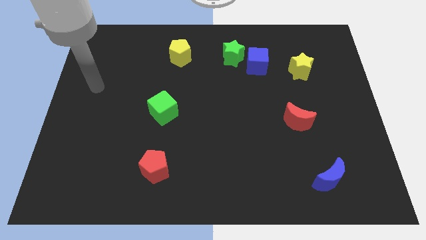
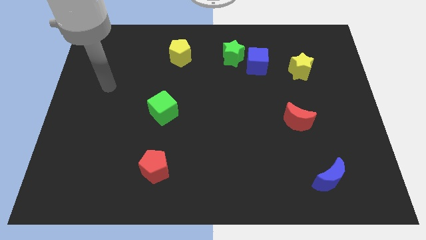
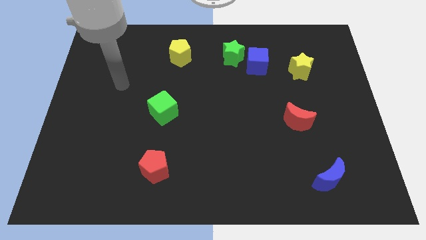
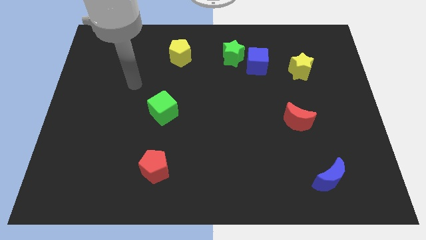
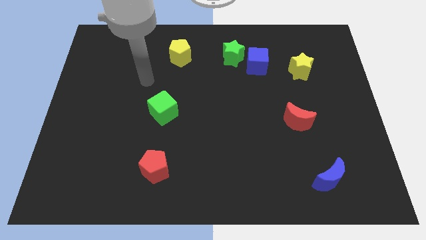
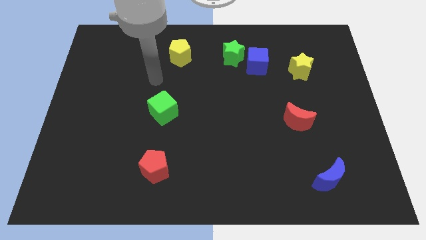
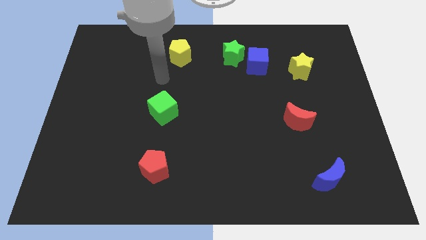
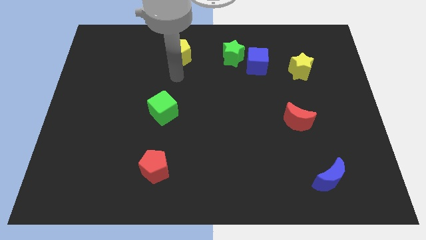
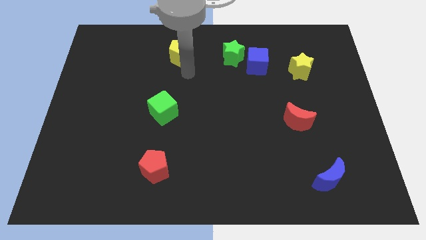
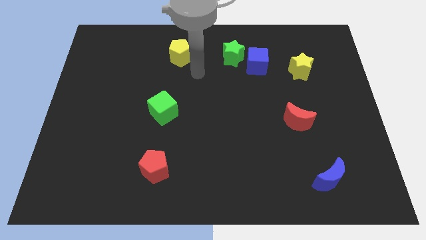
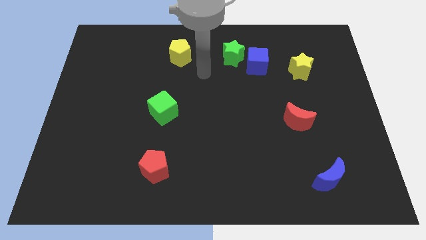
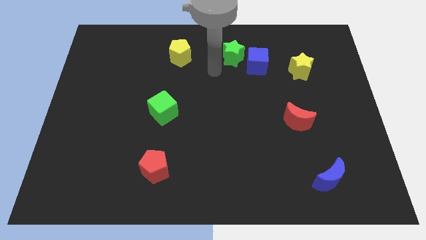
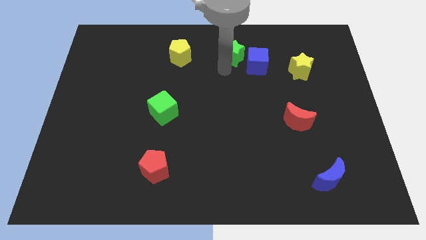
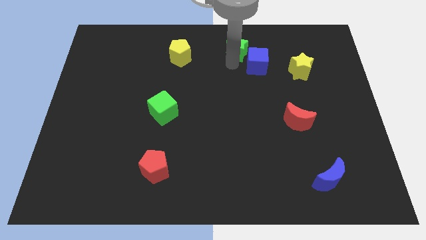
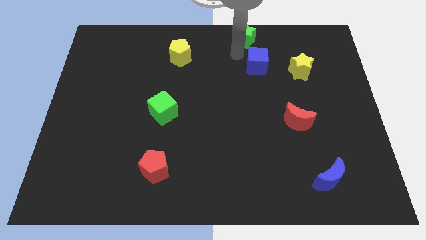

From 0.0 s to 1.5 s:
separate the blue cube from the green star

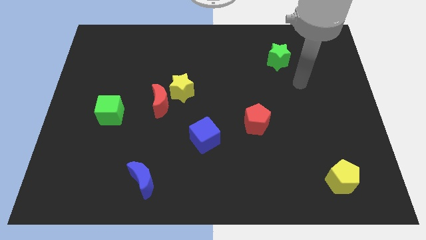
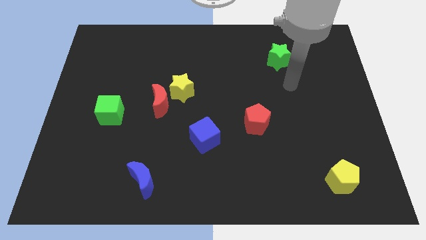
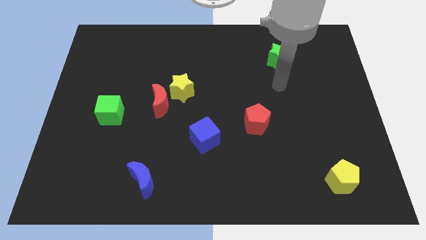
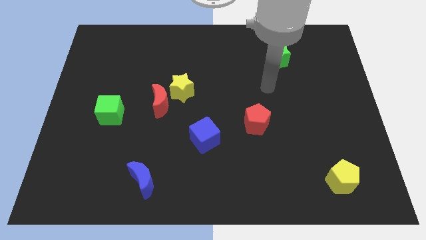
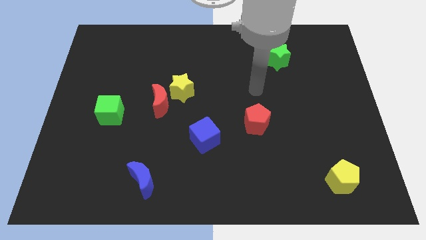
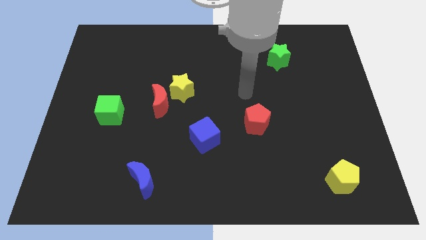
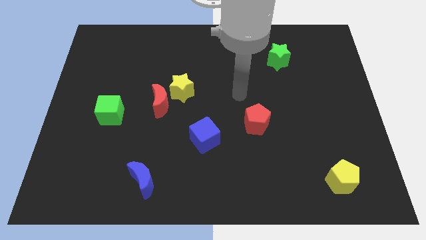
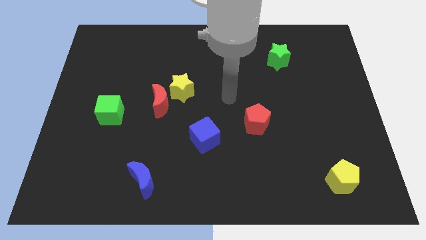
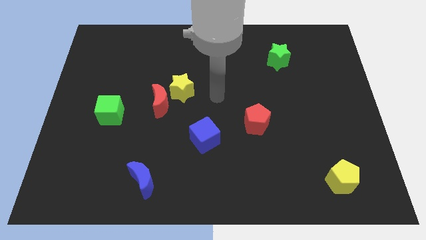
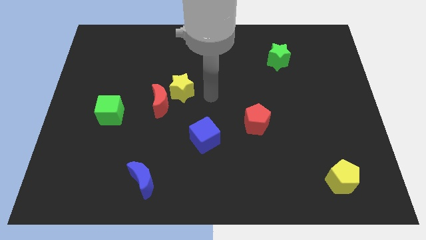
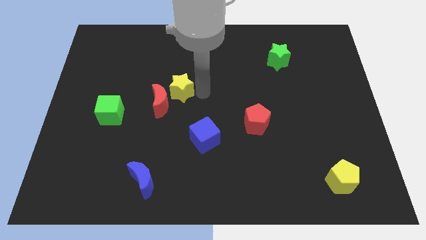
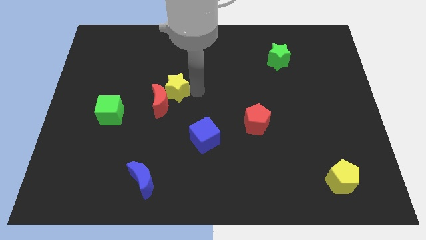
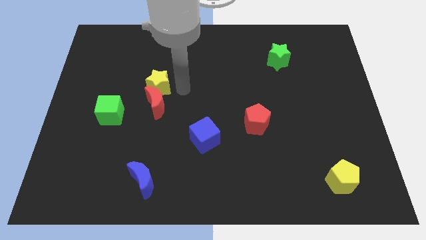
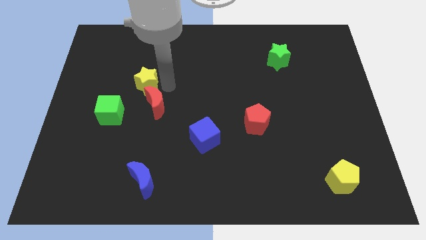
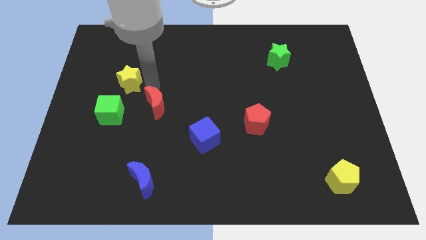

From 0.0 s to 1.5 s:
move the red moon away from the yellow star

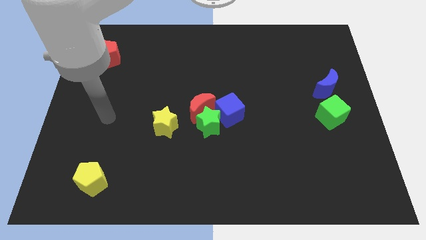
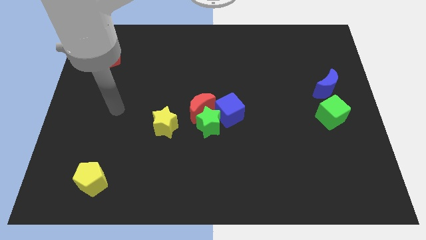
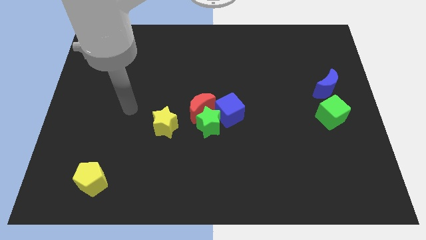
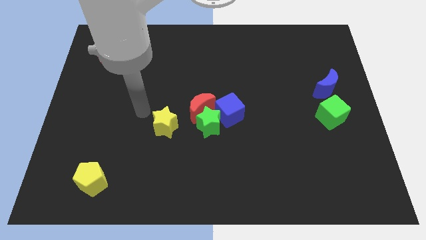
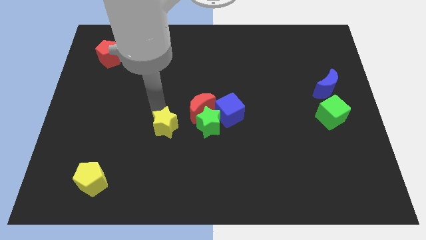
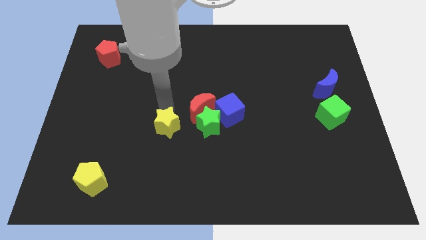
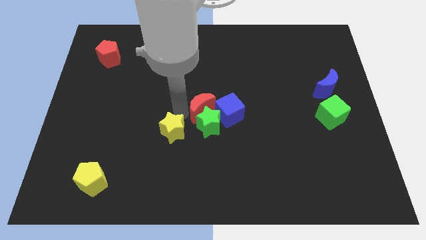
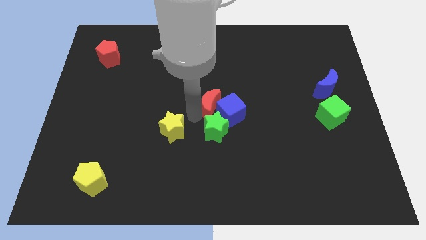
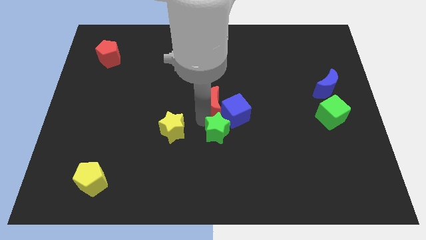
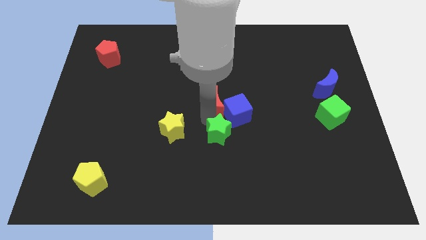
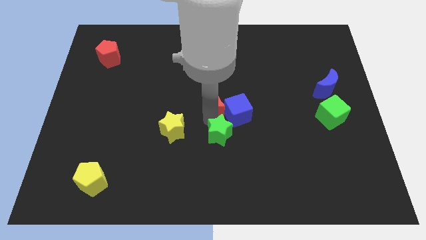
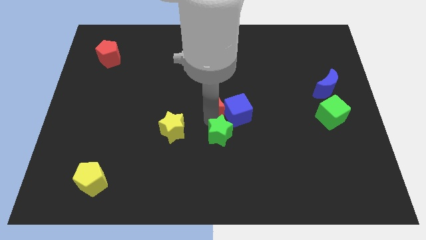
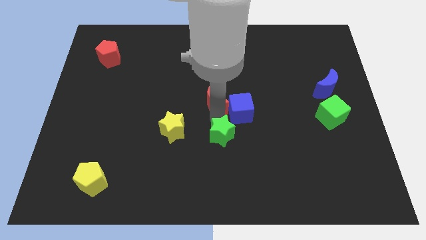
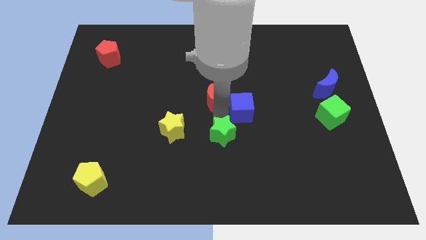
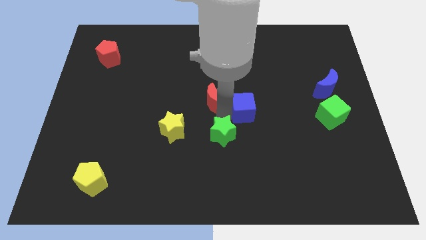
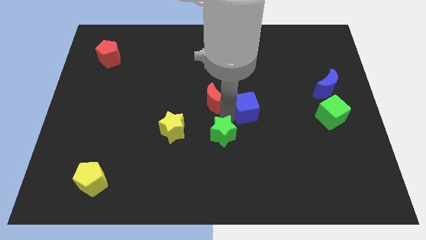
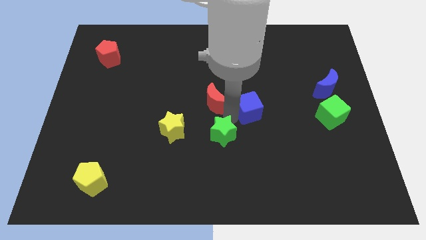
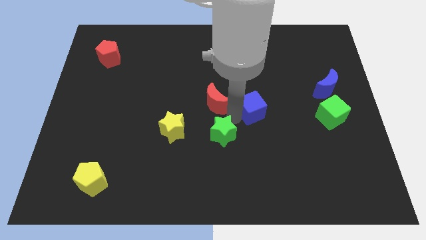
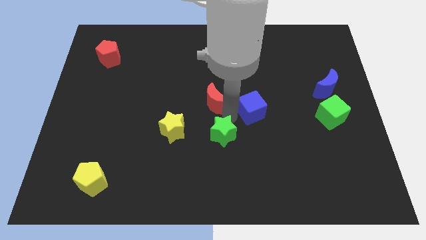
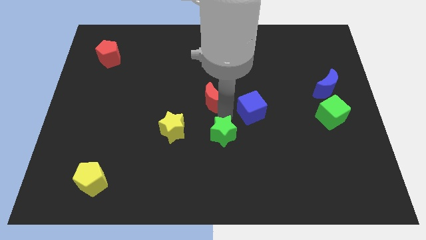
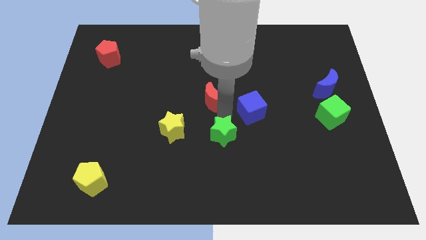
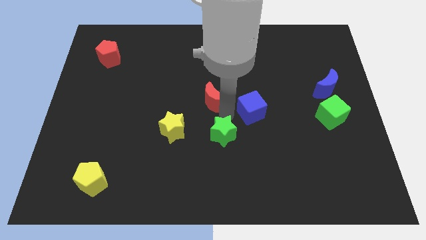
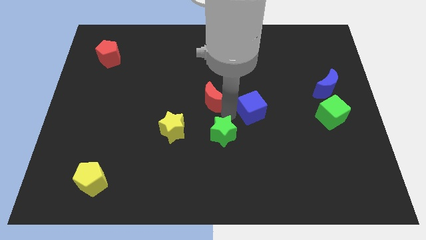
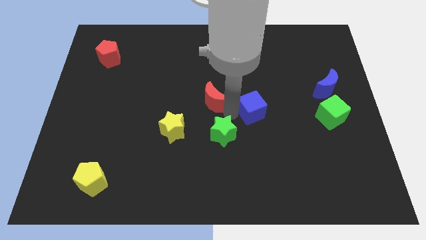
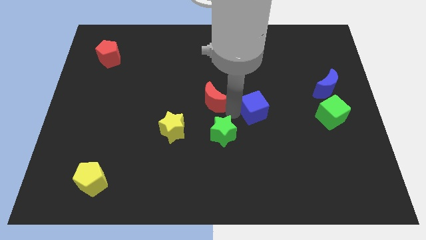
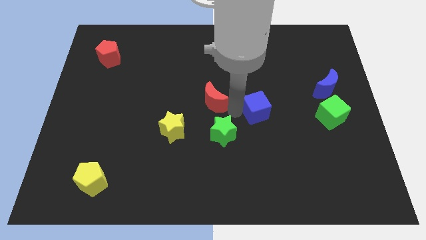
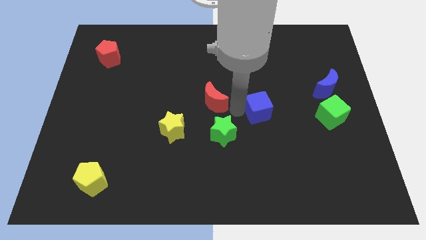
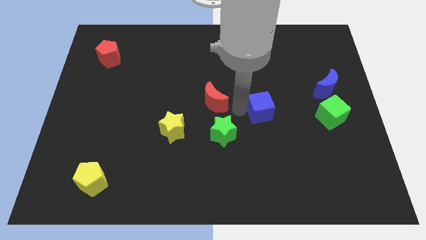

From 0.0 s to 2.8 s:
move the blue cube away from the green star and red moon

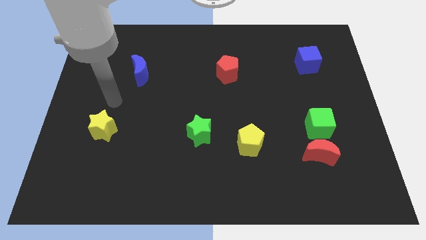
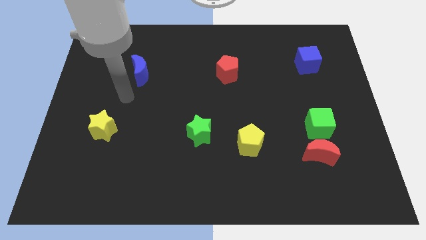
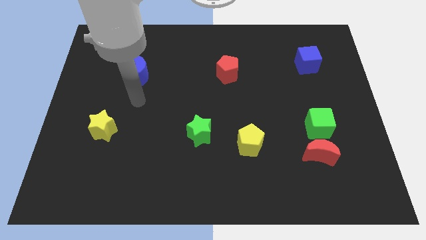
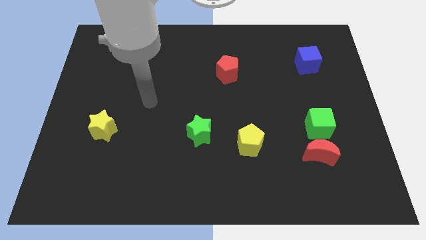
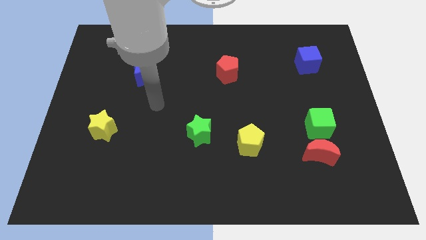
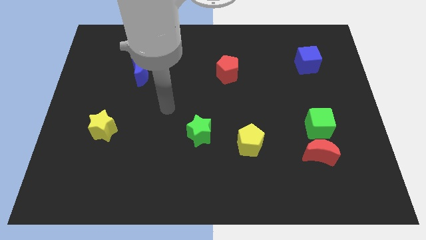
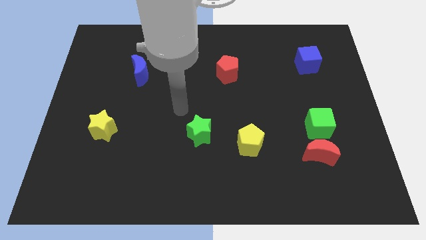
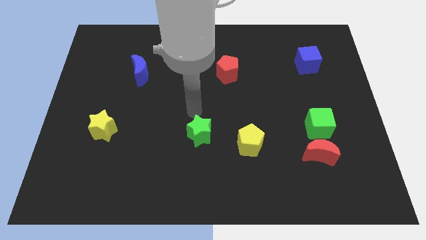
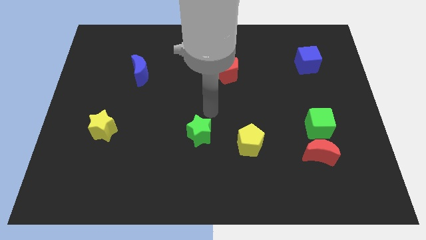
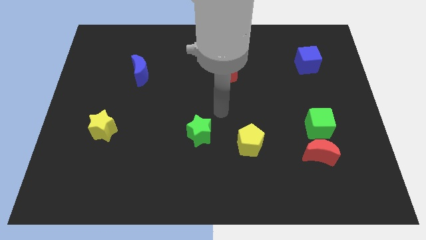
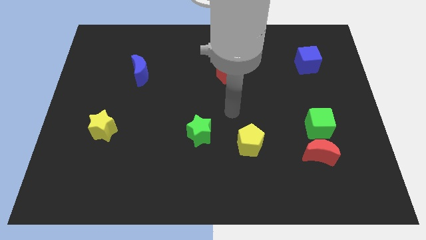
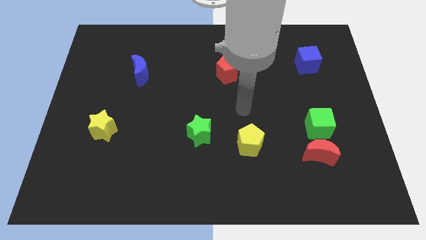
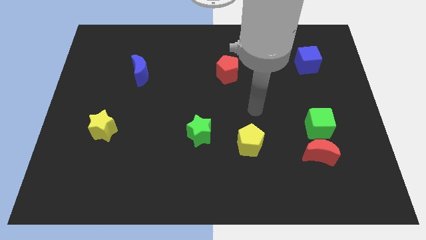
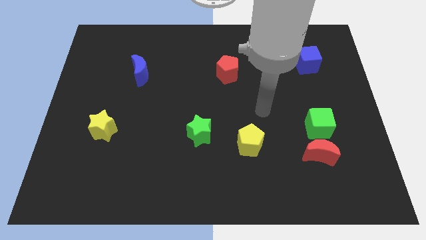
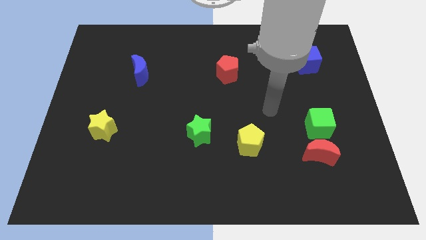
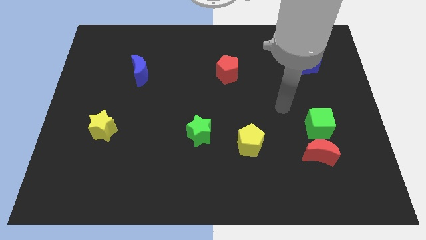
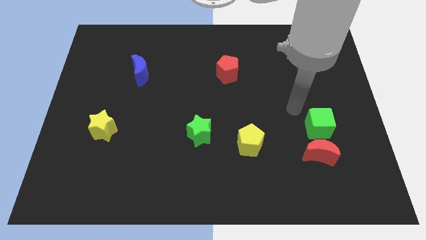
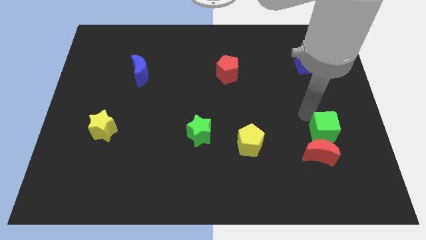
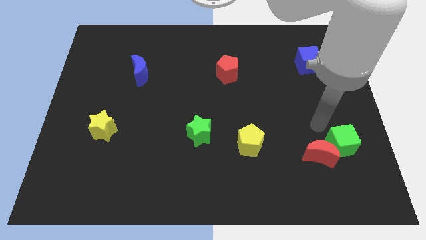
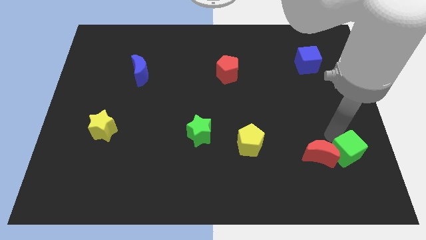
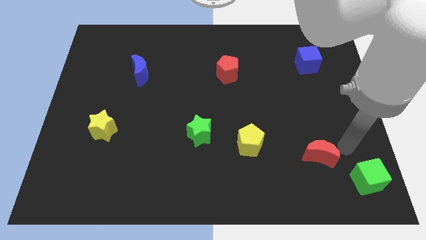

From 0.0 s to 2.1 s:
pull the red moon apart from the green cube

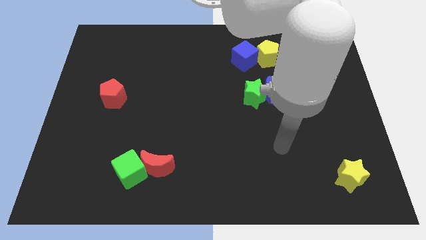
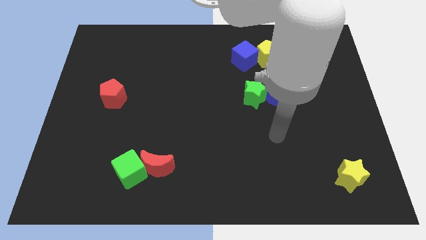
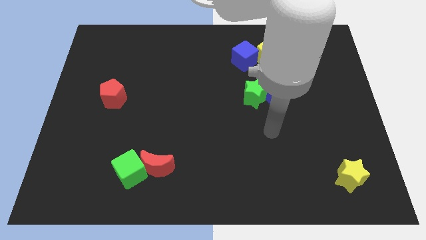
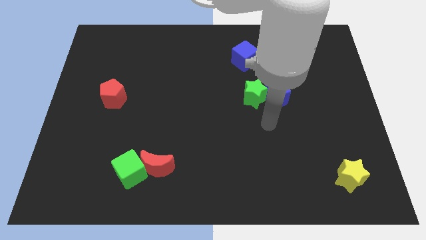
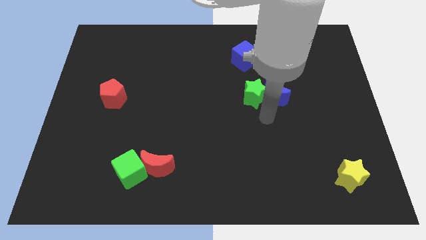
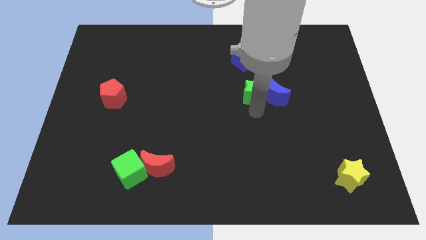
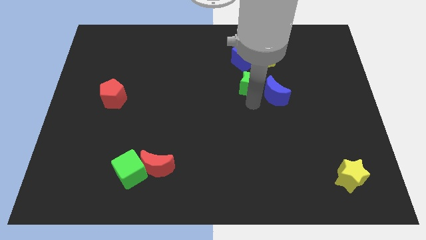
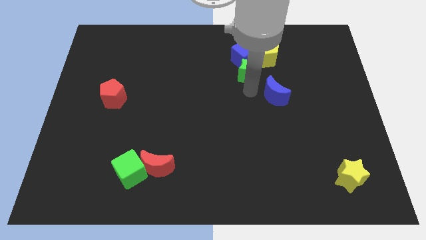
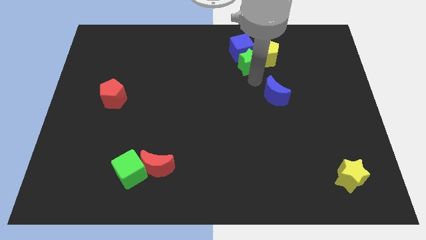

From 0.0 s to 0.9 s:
separate the blue moon from the green star

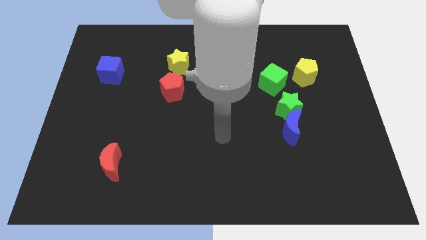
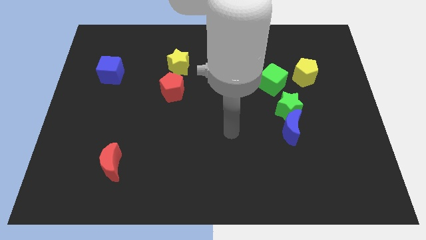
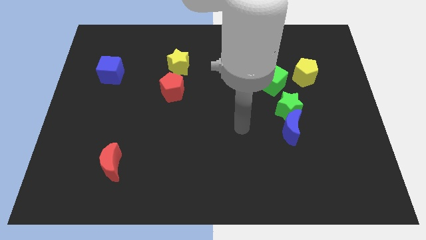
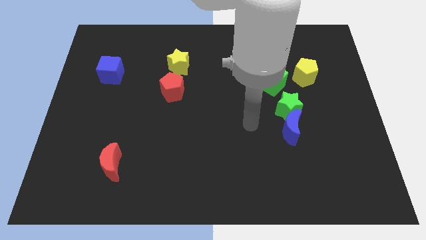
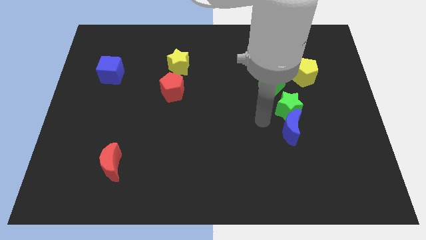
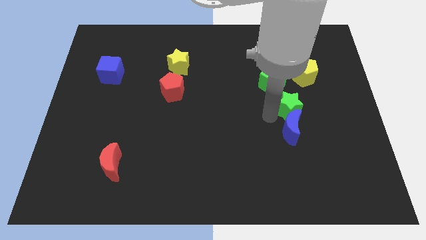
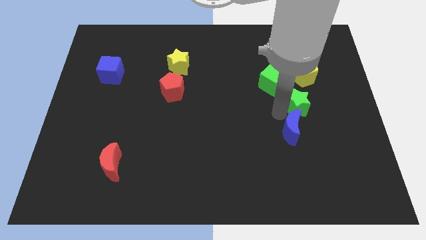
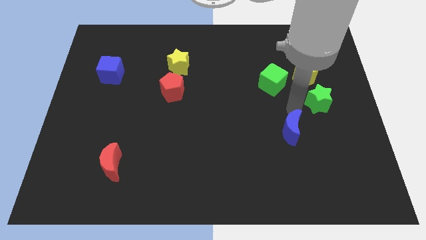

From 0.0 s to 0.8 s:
move the blue moon away from the green star
